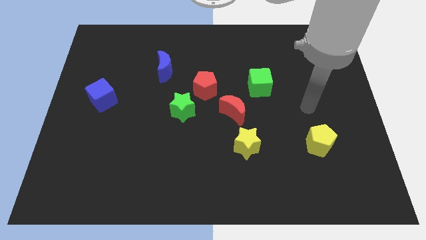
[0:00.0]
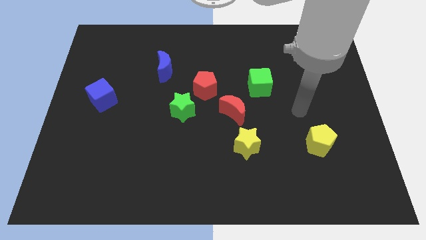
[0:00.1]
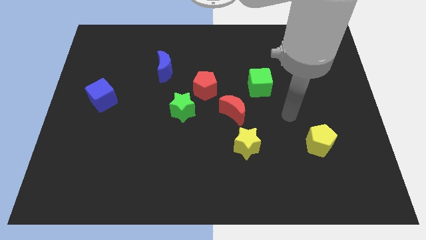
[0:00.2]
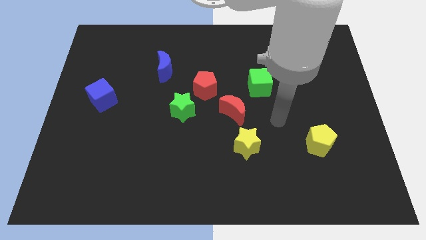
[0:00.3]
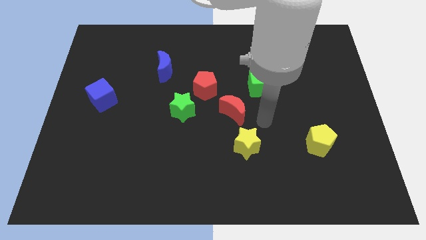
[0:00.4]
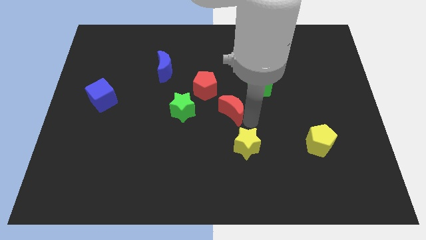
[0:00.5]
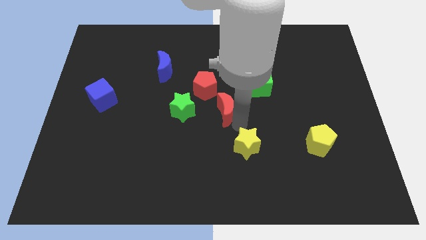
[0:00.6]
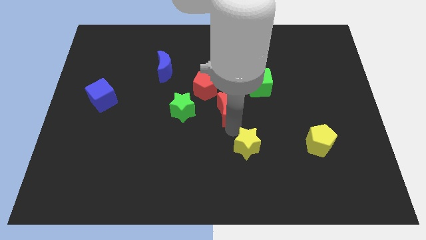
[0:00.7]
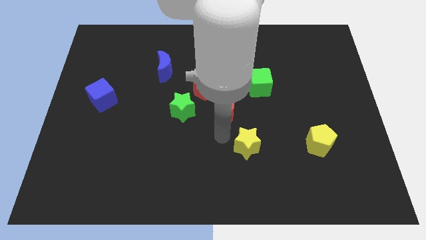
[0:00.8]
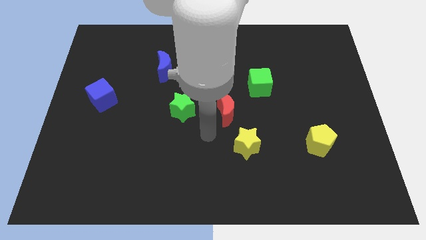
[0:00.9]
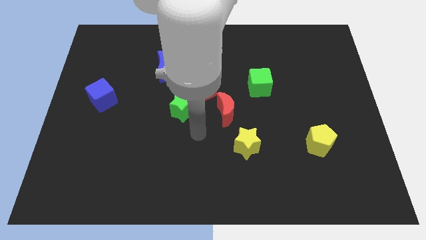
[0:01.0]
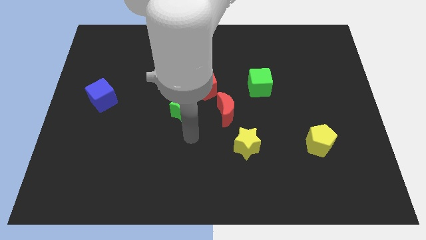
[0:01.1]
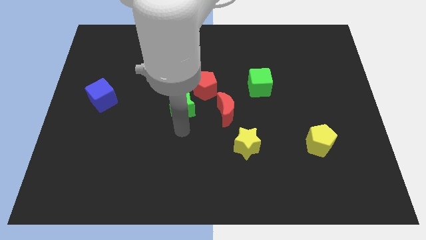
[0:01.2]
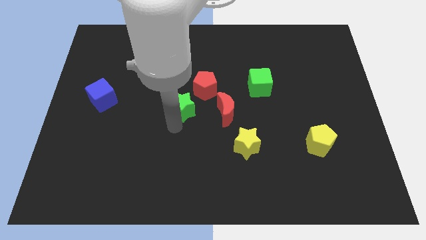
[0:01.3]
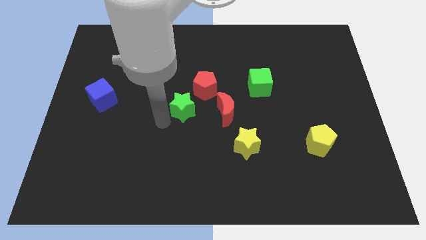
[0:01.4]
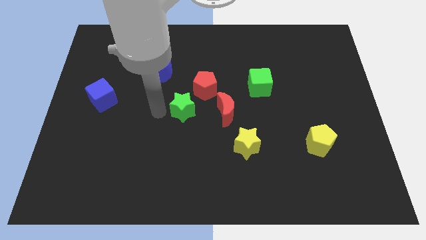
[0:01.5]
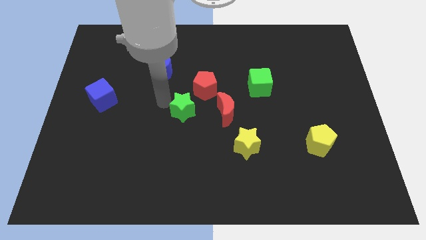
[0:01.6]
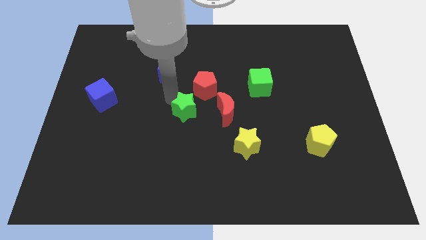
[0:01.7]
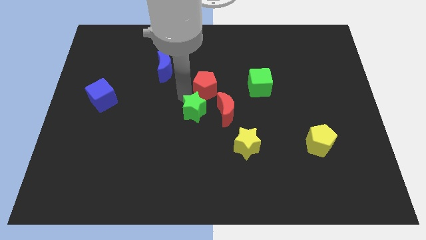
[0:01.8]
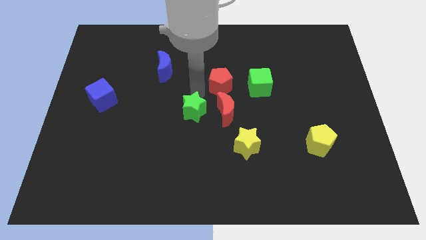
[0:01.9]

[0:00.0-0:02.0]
pull the green star apart from the red pentagon

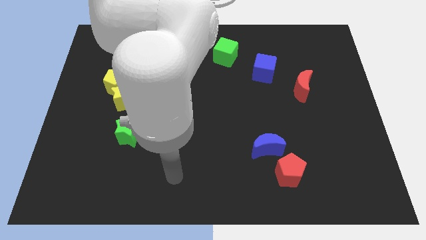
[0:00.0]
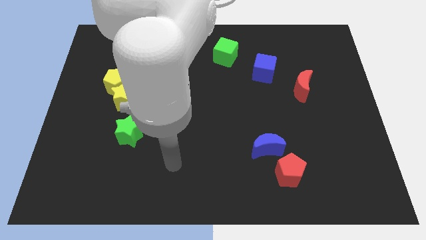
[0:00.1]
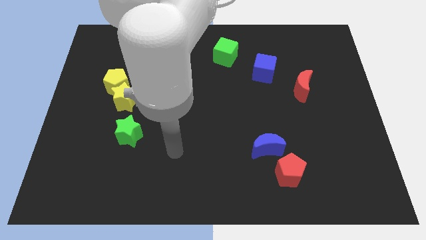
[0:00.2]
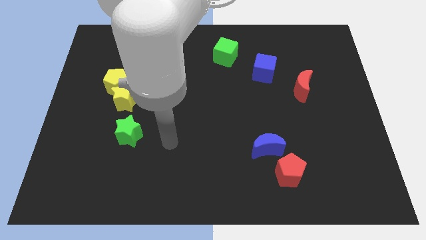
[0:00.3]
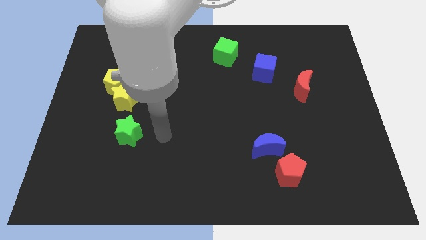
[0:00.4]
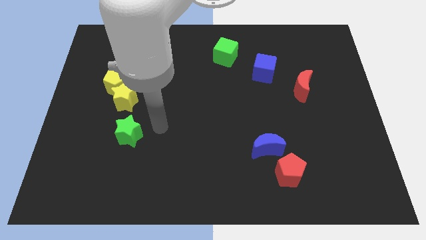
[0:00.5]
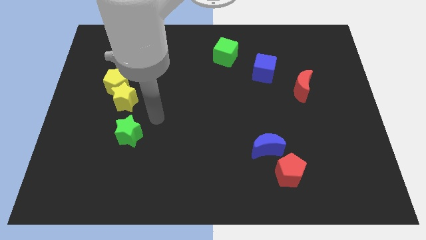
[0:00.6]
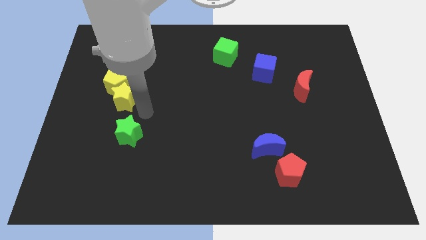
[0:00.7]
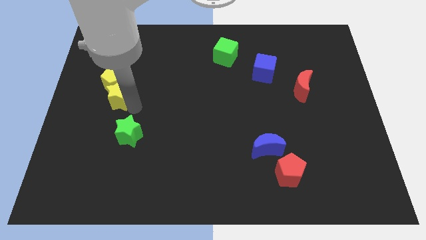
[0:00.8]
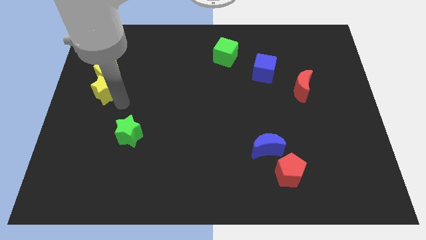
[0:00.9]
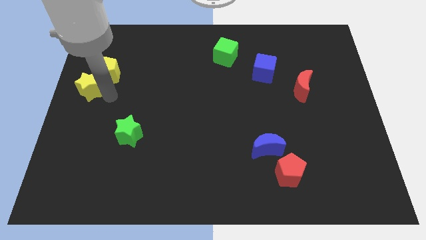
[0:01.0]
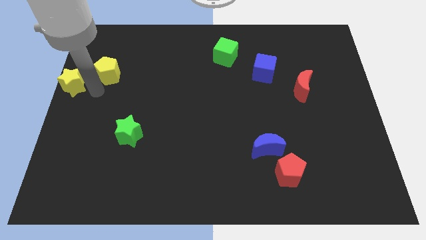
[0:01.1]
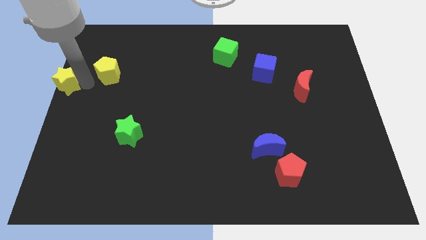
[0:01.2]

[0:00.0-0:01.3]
separate the yellow pentagon from the yellow star

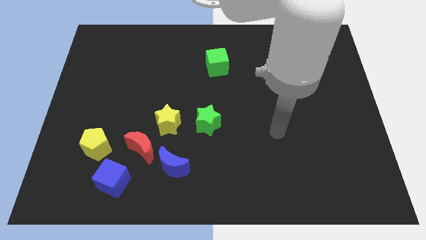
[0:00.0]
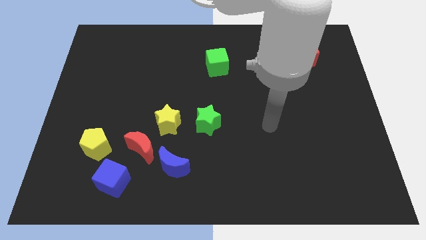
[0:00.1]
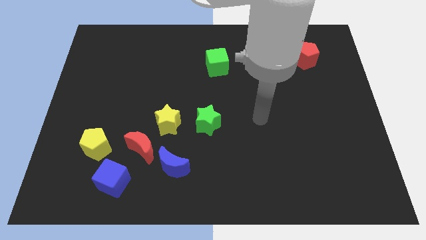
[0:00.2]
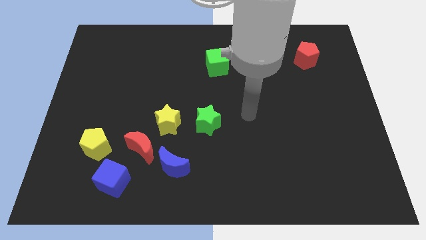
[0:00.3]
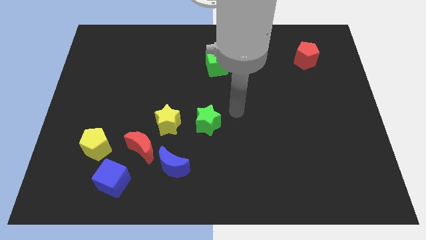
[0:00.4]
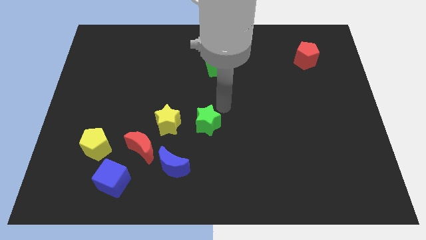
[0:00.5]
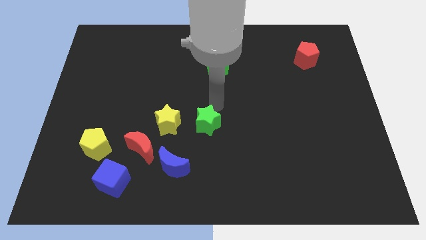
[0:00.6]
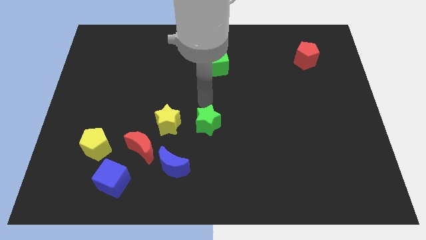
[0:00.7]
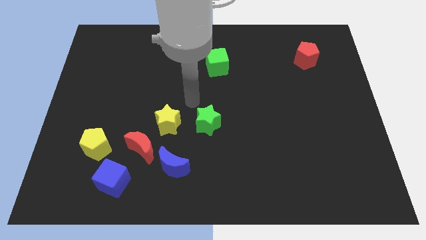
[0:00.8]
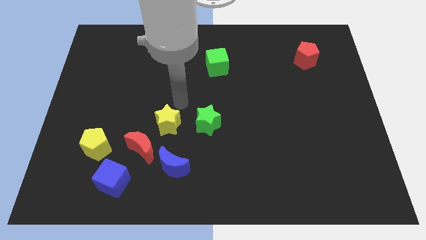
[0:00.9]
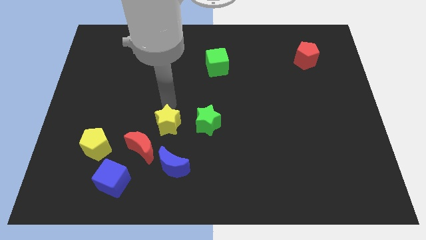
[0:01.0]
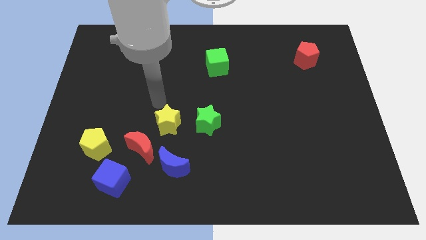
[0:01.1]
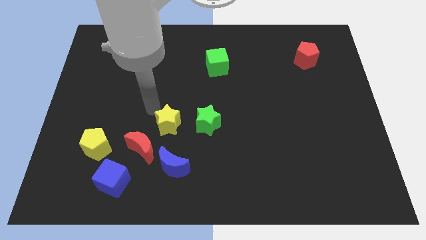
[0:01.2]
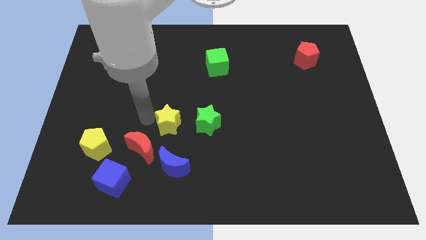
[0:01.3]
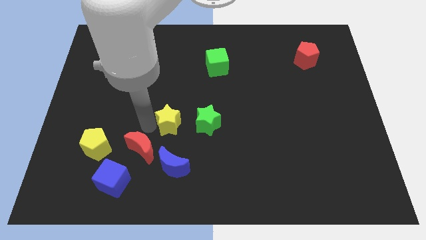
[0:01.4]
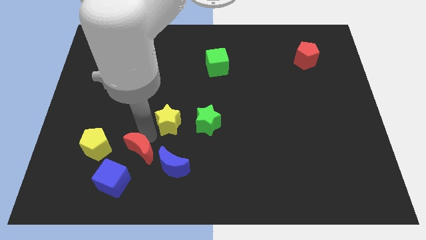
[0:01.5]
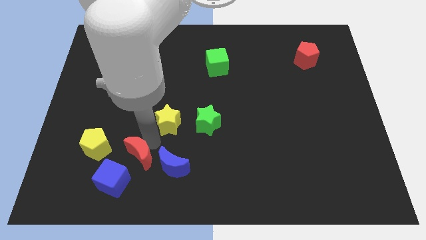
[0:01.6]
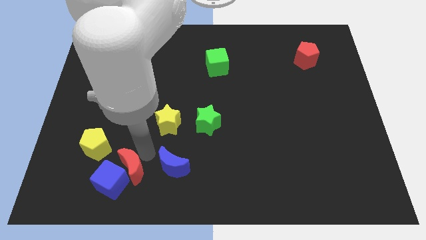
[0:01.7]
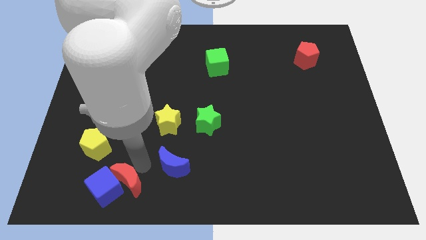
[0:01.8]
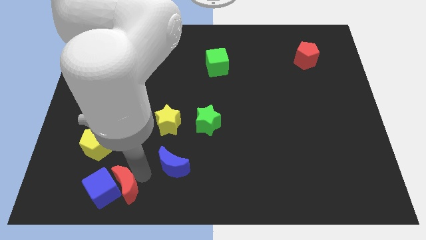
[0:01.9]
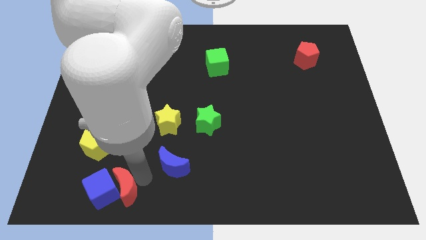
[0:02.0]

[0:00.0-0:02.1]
pull the blue moon apart from the red moon

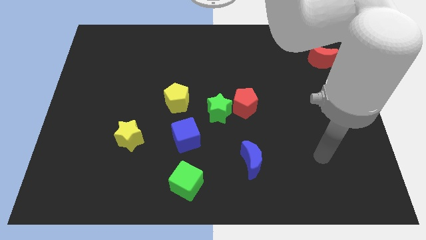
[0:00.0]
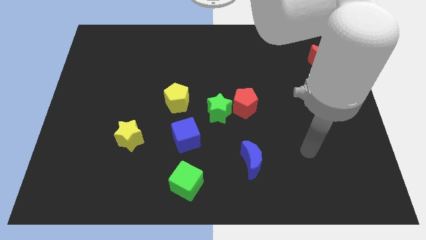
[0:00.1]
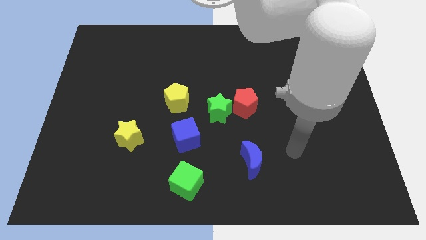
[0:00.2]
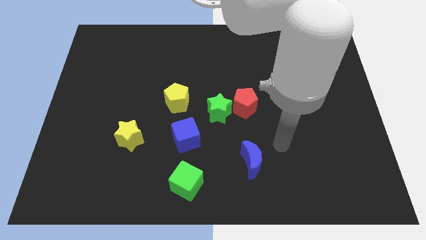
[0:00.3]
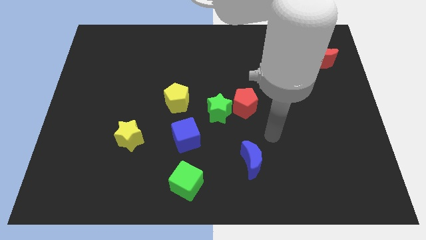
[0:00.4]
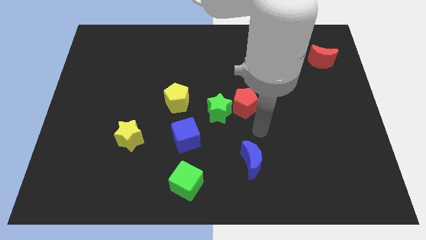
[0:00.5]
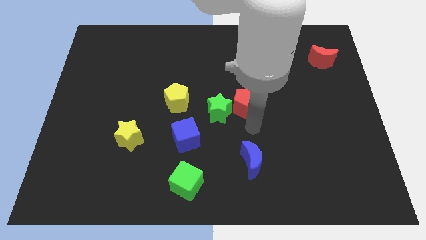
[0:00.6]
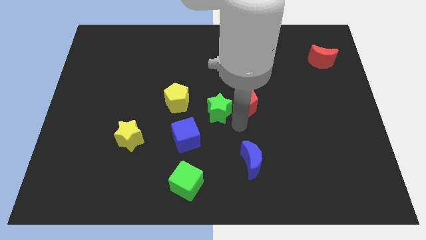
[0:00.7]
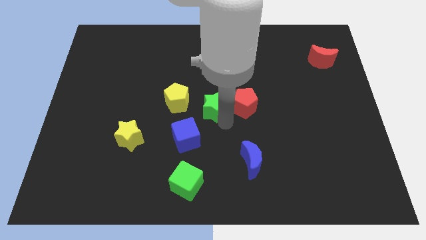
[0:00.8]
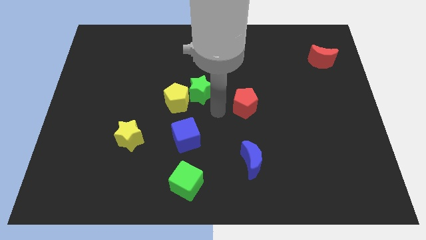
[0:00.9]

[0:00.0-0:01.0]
pull the red pentagon apart from the green star

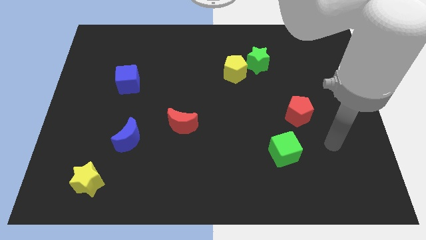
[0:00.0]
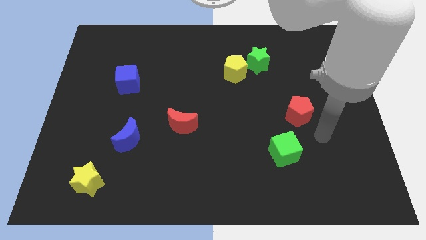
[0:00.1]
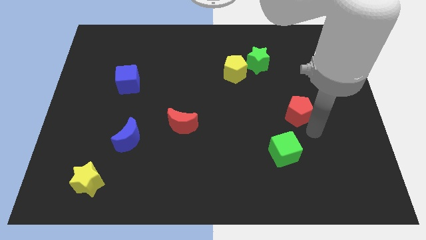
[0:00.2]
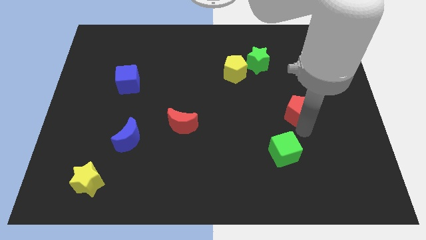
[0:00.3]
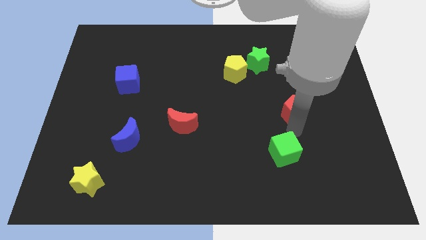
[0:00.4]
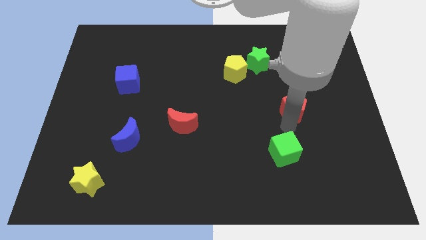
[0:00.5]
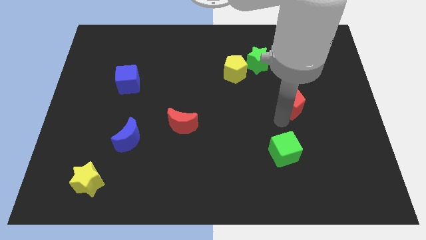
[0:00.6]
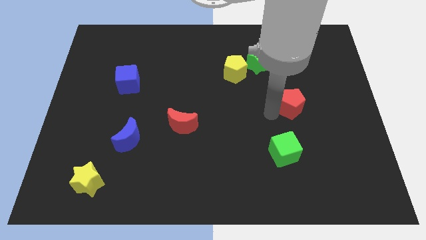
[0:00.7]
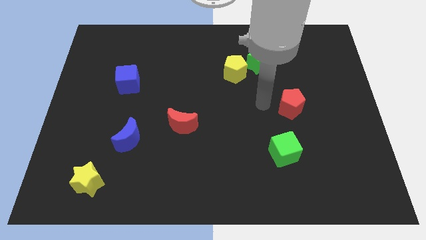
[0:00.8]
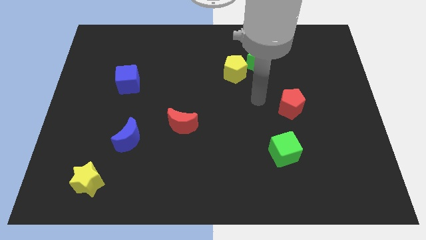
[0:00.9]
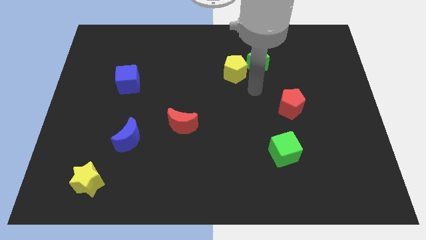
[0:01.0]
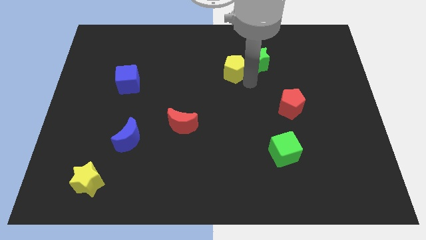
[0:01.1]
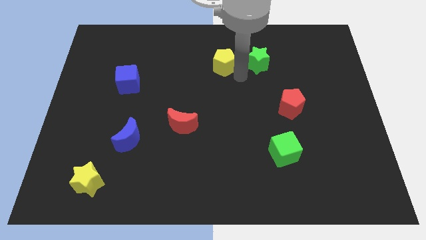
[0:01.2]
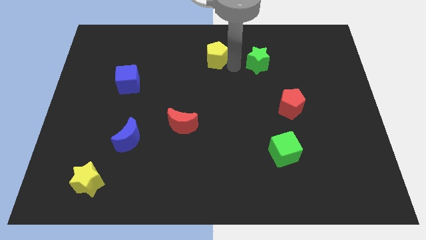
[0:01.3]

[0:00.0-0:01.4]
pull the green star apart from the yellow pentagon

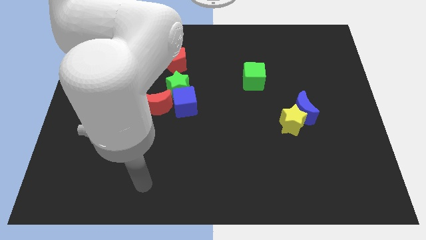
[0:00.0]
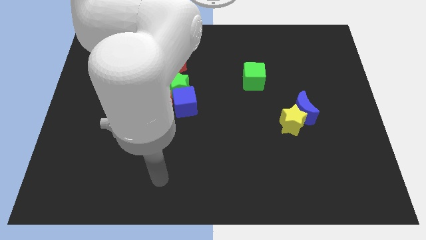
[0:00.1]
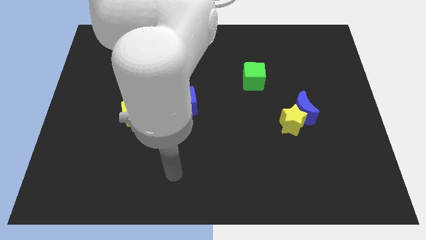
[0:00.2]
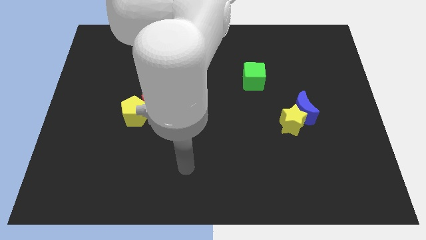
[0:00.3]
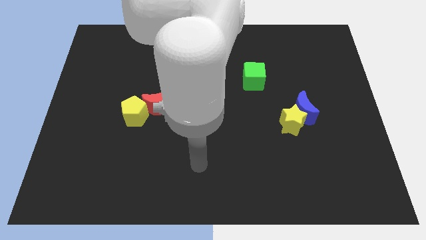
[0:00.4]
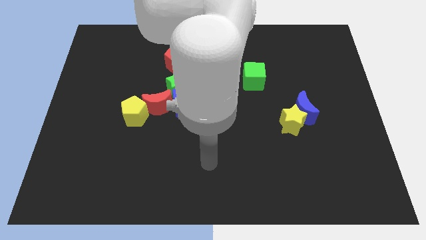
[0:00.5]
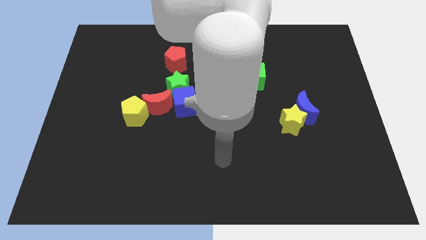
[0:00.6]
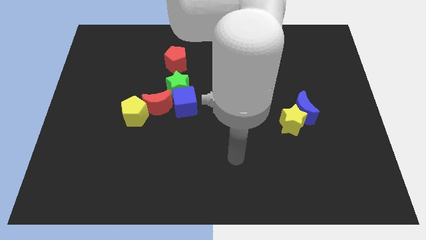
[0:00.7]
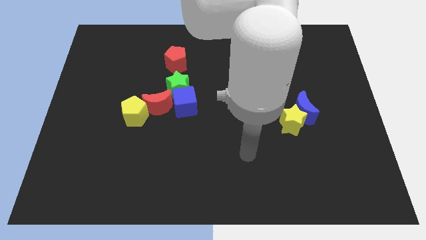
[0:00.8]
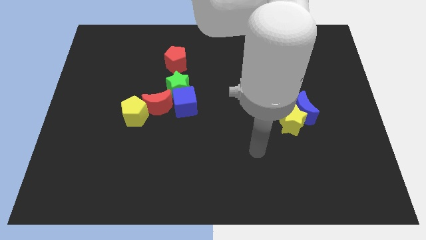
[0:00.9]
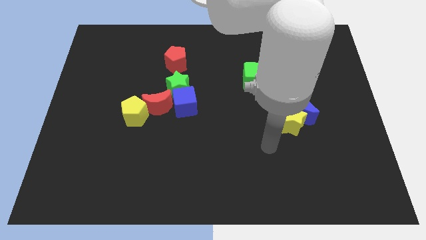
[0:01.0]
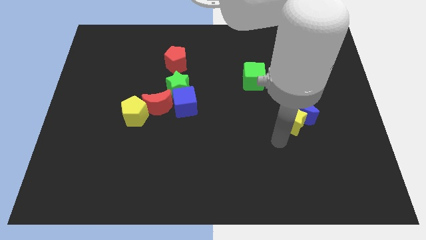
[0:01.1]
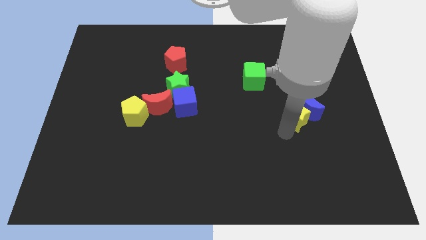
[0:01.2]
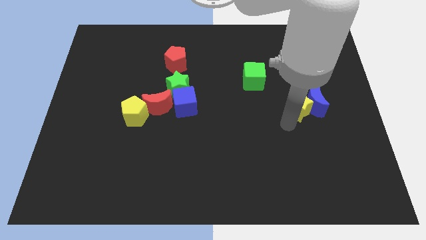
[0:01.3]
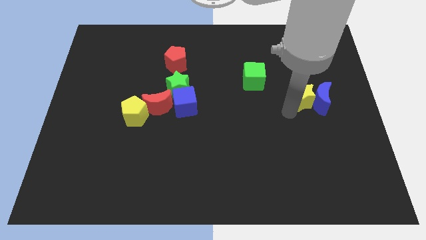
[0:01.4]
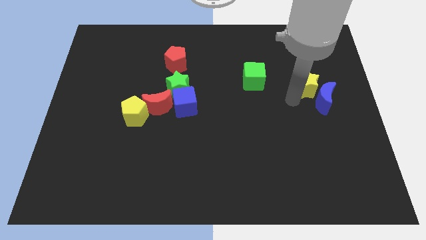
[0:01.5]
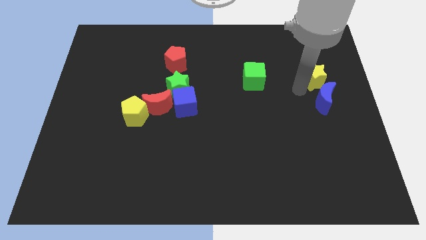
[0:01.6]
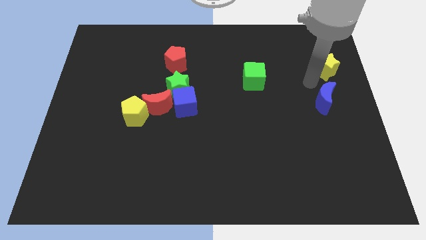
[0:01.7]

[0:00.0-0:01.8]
move the blue moon away from the yellow star
